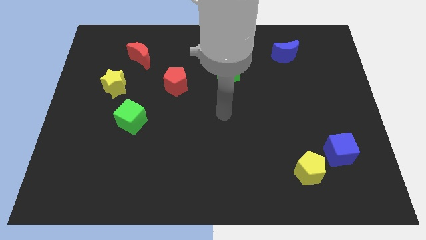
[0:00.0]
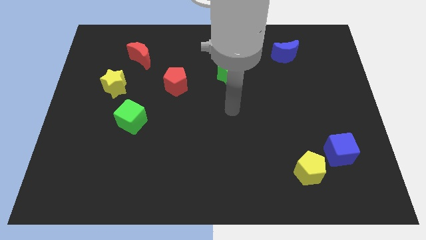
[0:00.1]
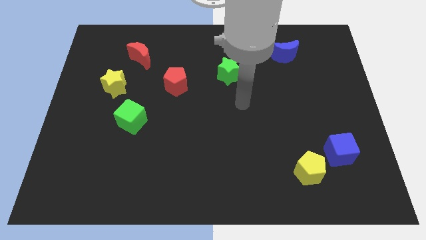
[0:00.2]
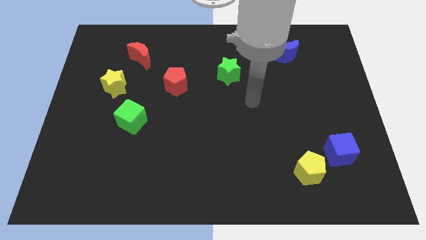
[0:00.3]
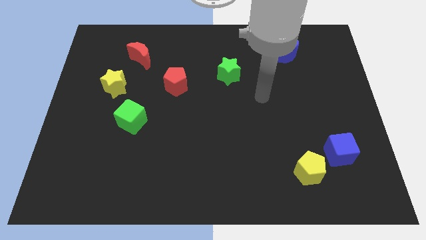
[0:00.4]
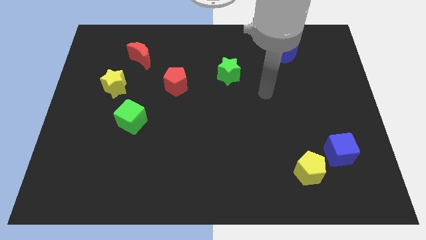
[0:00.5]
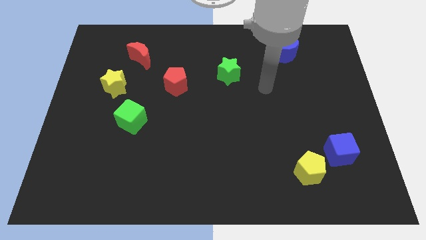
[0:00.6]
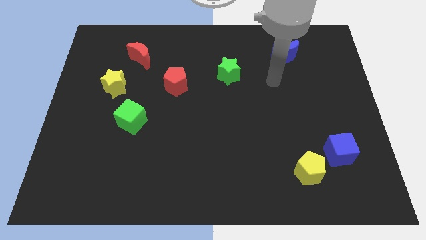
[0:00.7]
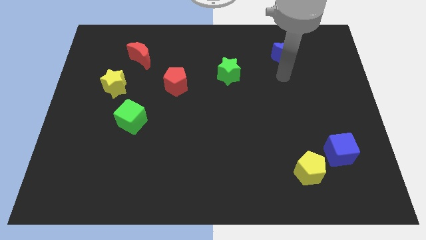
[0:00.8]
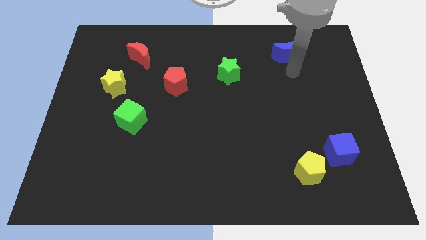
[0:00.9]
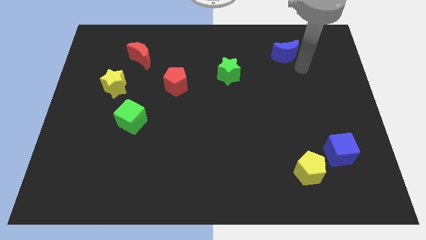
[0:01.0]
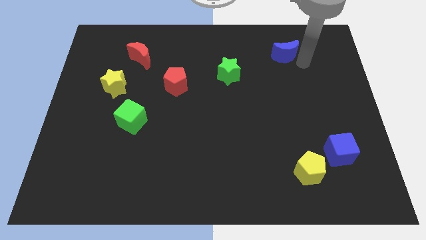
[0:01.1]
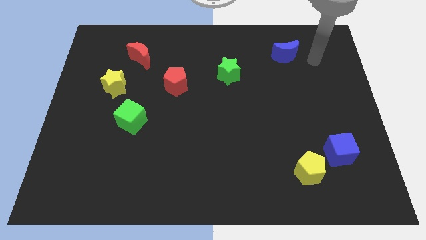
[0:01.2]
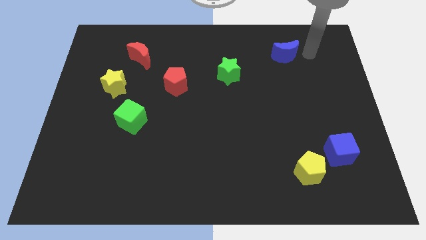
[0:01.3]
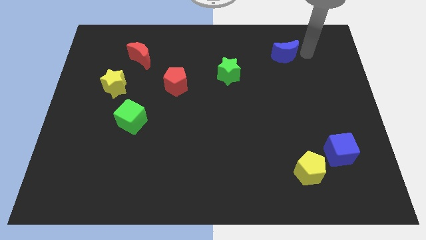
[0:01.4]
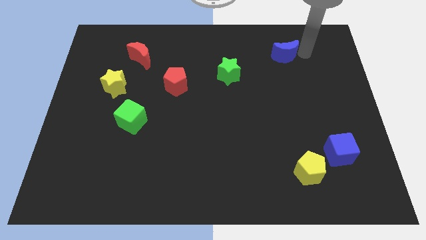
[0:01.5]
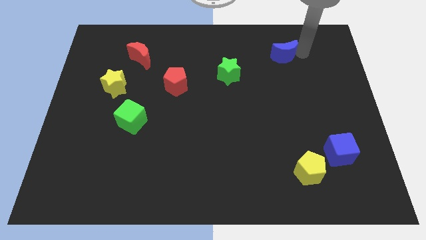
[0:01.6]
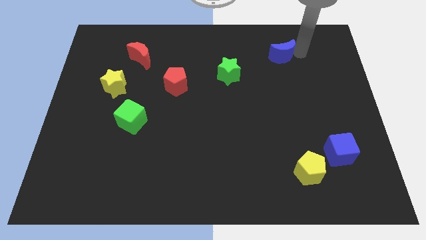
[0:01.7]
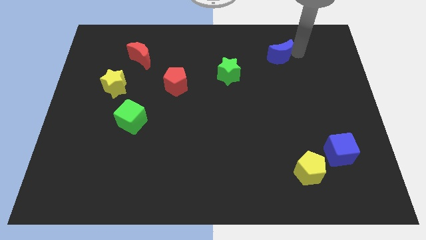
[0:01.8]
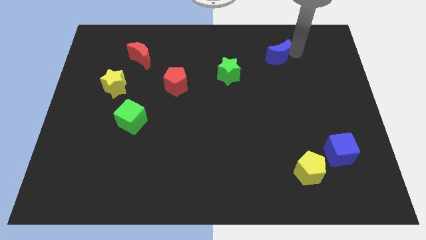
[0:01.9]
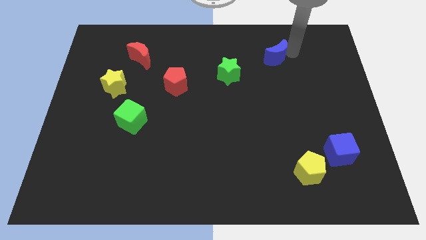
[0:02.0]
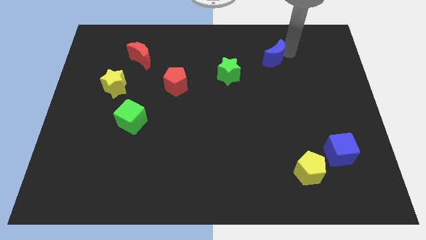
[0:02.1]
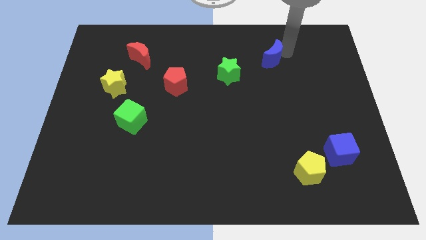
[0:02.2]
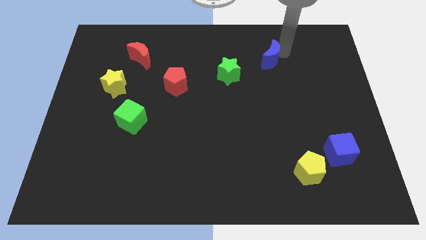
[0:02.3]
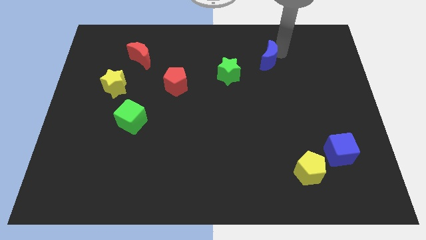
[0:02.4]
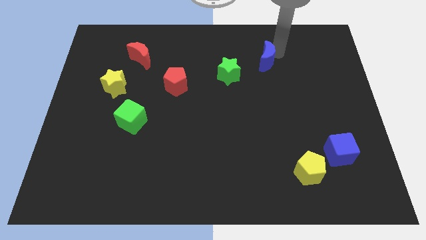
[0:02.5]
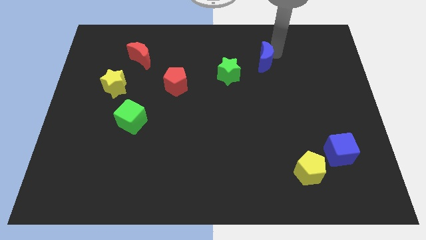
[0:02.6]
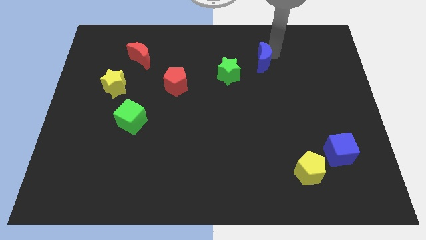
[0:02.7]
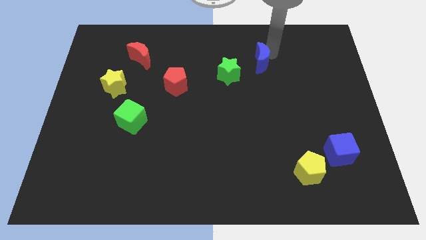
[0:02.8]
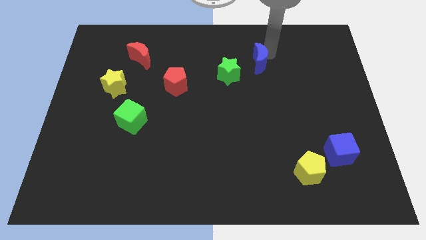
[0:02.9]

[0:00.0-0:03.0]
push the blue moon a bit to the left

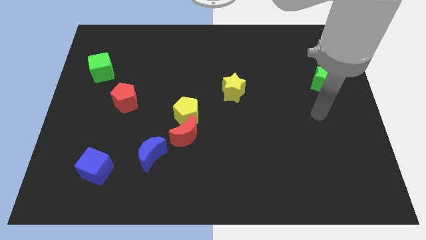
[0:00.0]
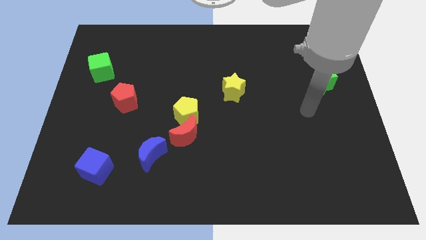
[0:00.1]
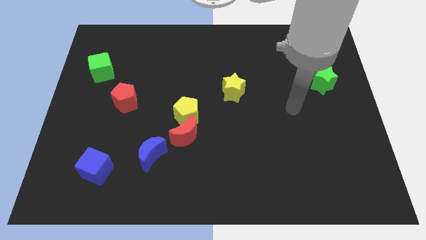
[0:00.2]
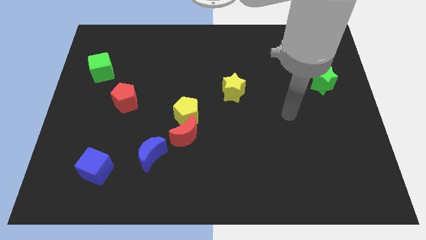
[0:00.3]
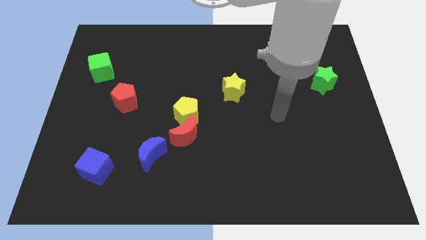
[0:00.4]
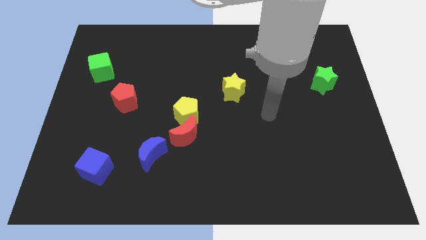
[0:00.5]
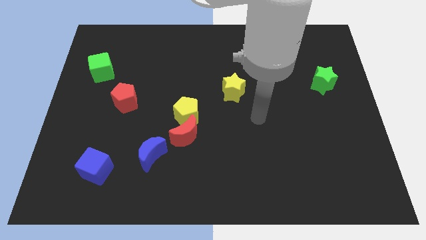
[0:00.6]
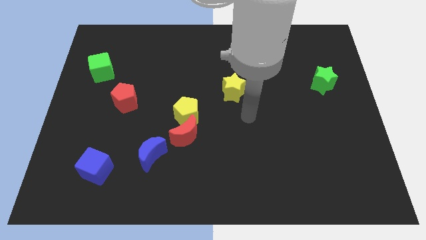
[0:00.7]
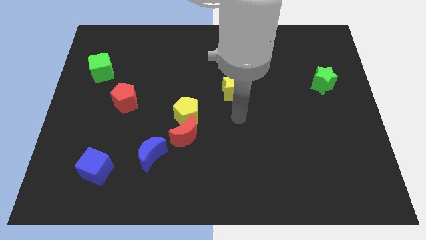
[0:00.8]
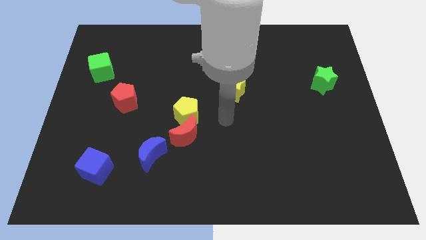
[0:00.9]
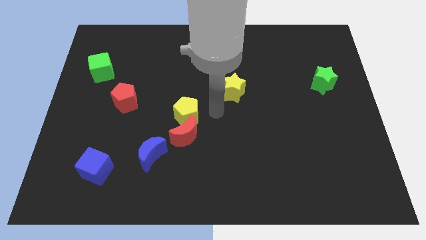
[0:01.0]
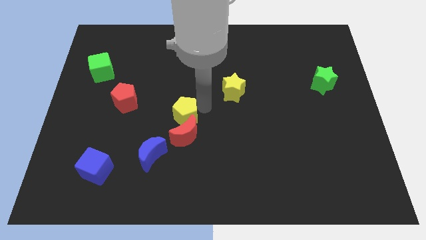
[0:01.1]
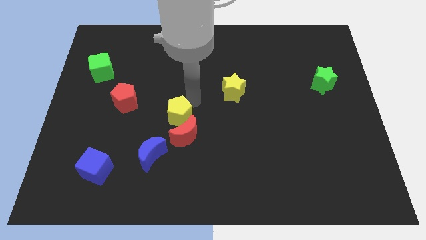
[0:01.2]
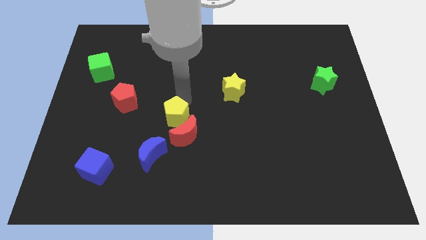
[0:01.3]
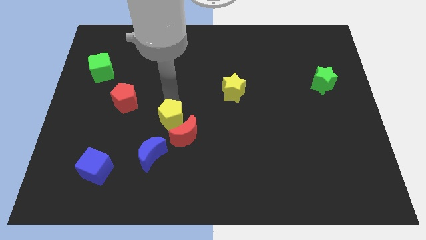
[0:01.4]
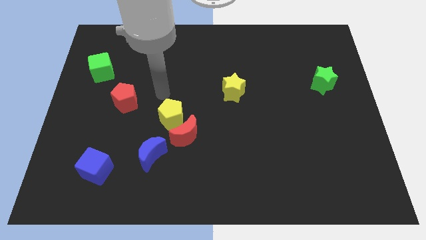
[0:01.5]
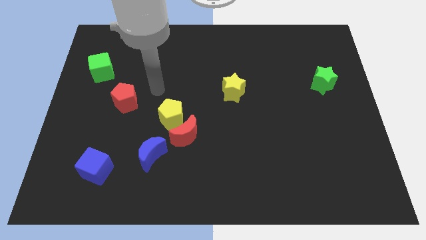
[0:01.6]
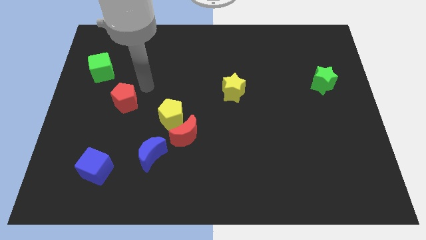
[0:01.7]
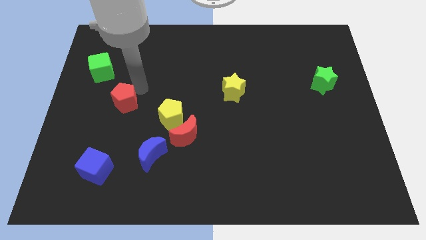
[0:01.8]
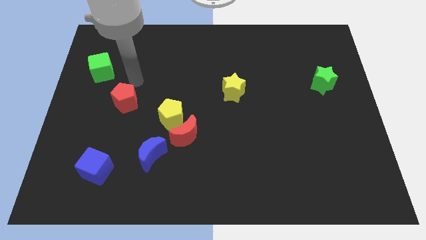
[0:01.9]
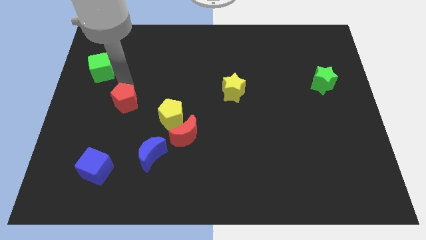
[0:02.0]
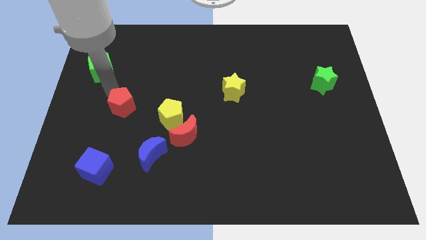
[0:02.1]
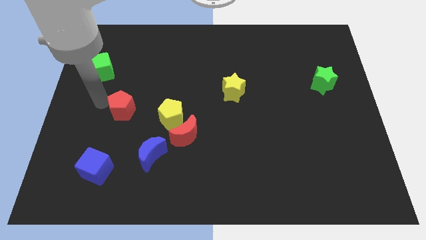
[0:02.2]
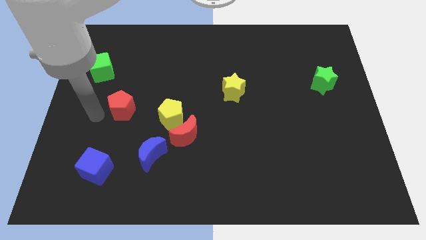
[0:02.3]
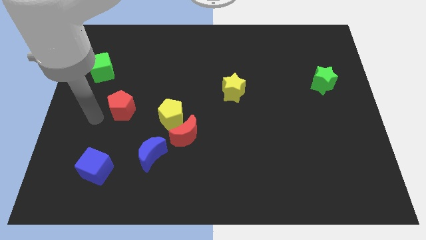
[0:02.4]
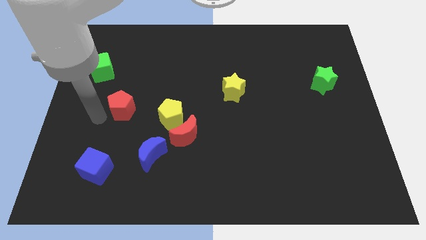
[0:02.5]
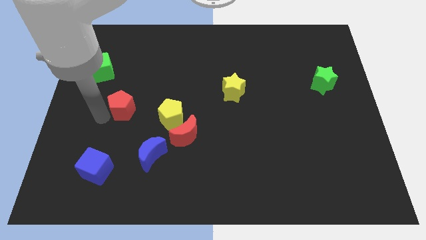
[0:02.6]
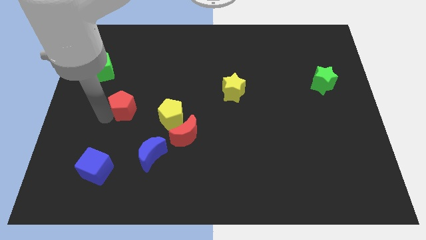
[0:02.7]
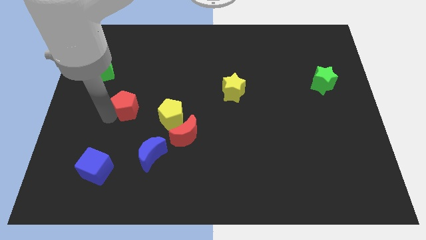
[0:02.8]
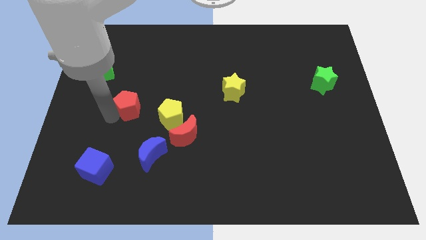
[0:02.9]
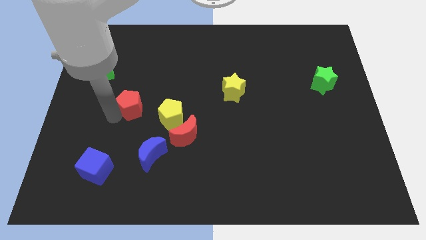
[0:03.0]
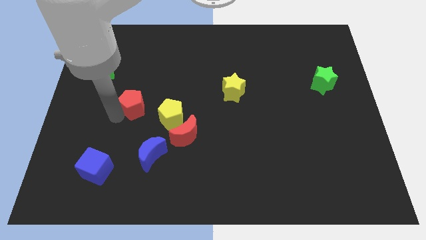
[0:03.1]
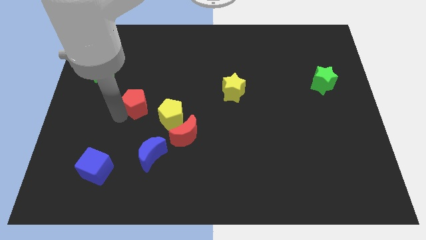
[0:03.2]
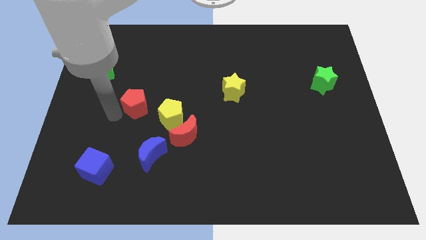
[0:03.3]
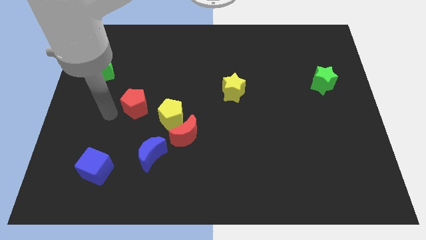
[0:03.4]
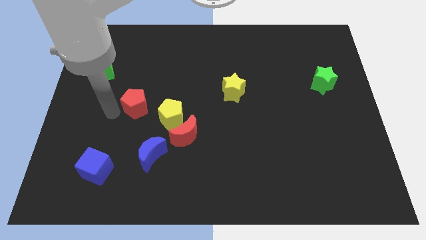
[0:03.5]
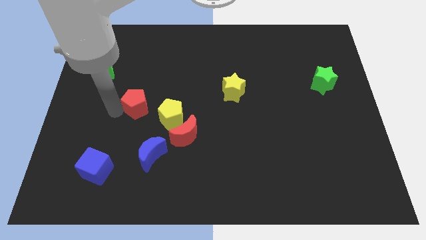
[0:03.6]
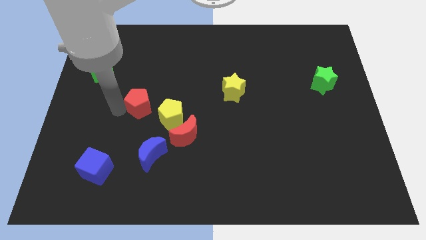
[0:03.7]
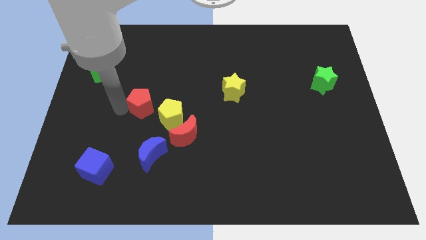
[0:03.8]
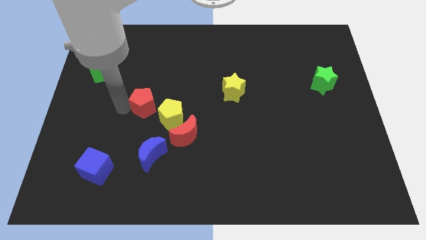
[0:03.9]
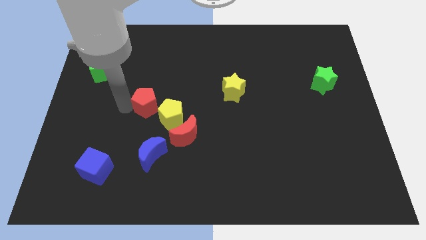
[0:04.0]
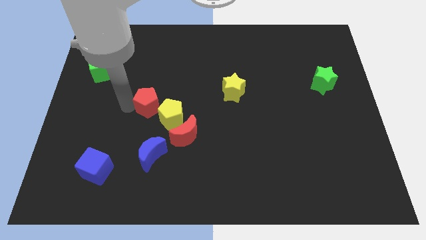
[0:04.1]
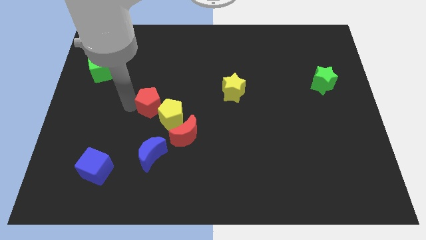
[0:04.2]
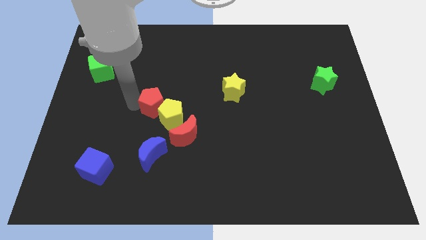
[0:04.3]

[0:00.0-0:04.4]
slightly move the red pentagon to the right

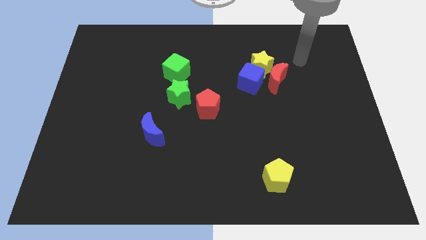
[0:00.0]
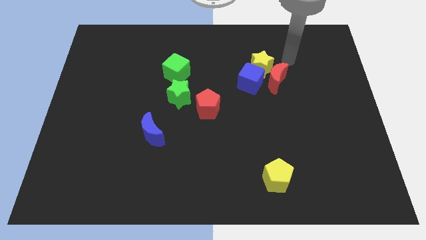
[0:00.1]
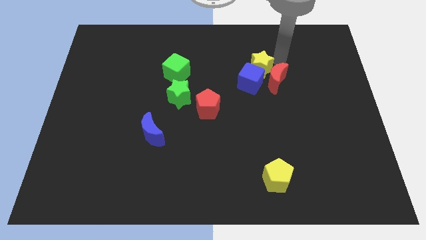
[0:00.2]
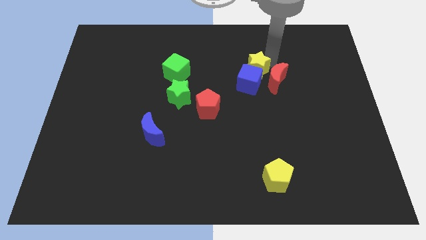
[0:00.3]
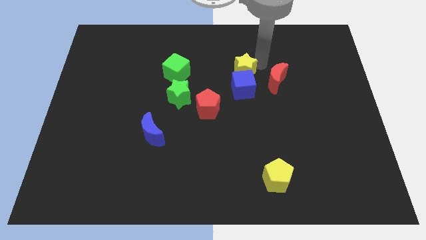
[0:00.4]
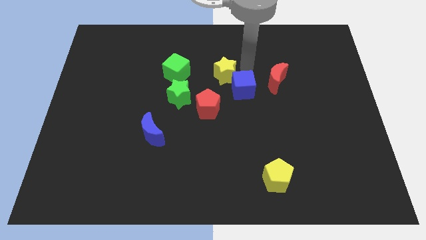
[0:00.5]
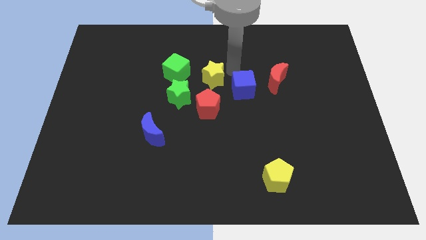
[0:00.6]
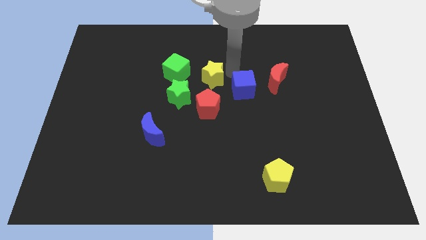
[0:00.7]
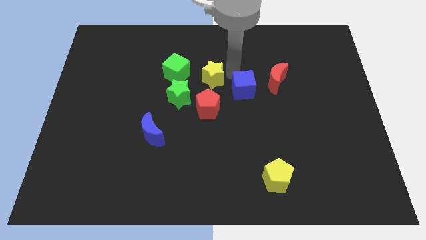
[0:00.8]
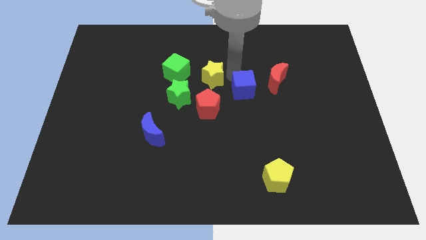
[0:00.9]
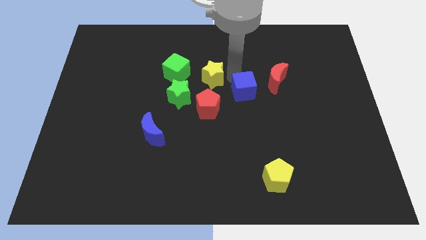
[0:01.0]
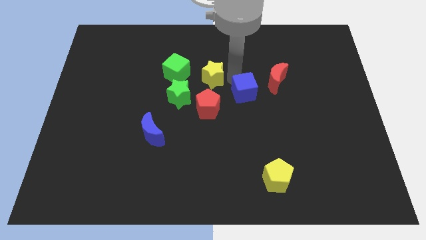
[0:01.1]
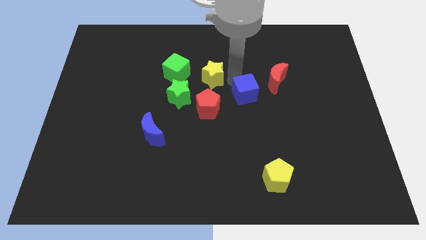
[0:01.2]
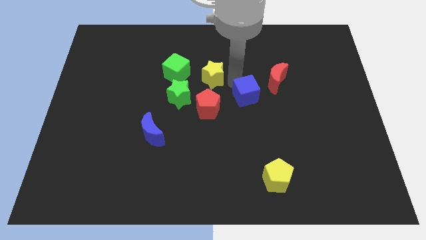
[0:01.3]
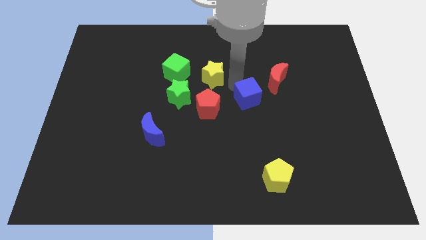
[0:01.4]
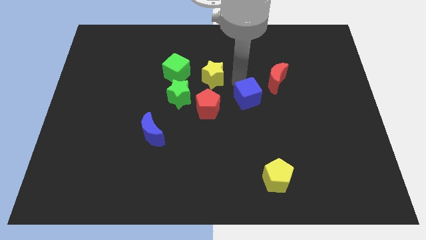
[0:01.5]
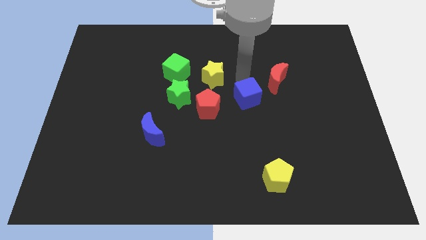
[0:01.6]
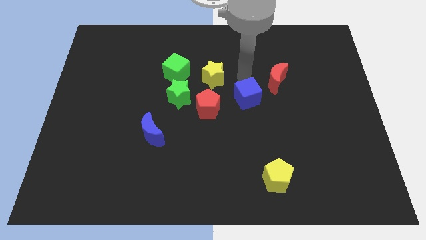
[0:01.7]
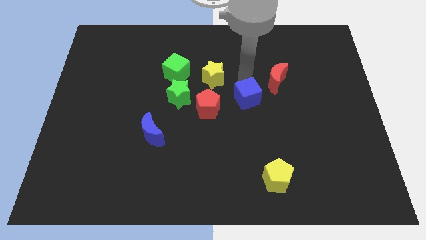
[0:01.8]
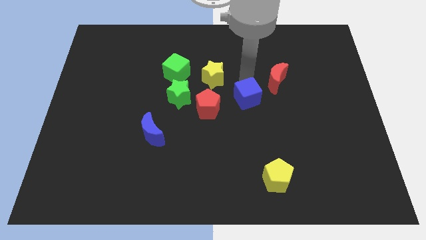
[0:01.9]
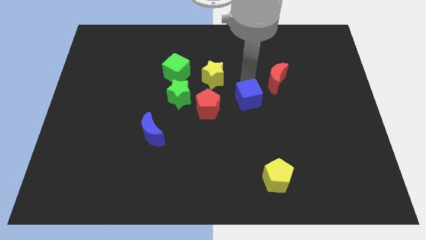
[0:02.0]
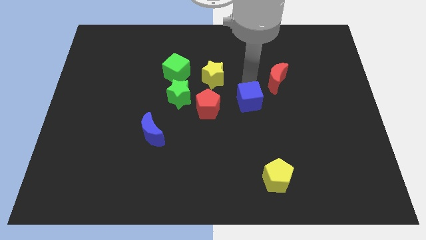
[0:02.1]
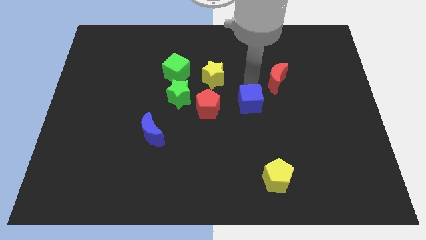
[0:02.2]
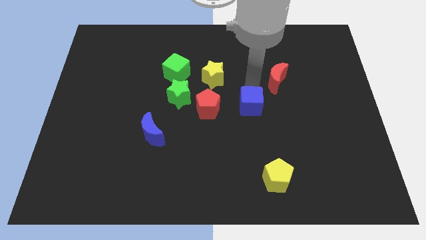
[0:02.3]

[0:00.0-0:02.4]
push the blue cube slightly down
